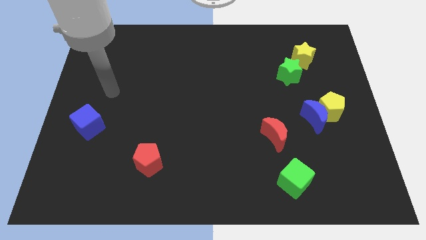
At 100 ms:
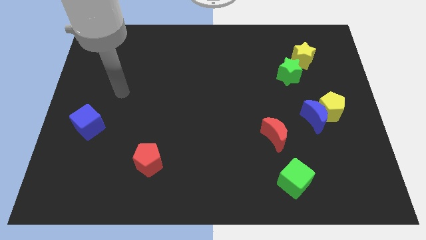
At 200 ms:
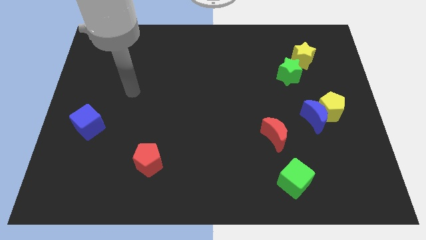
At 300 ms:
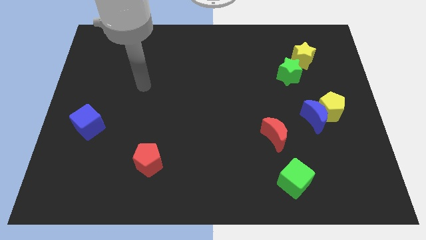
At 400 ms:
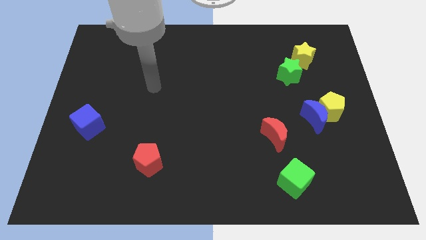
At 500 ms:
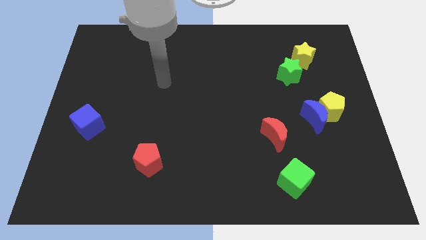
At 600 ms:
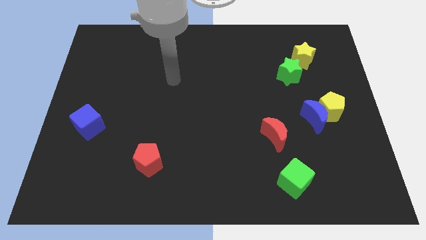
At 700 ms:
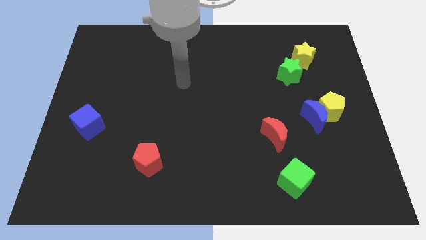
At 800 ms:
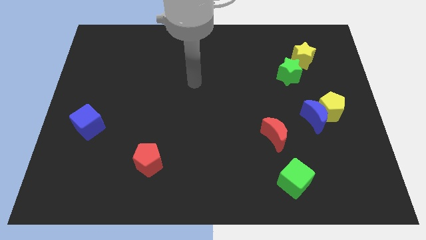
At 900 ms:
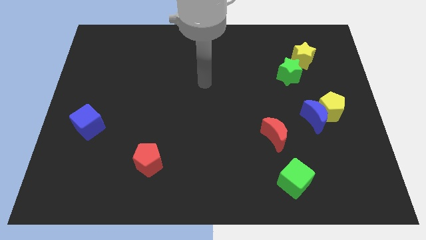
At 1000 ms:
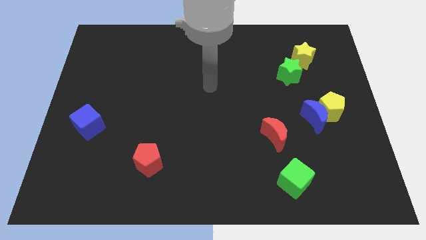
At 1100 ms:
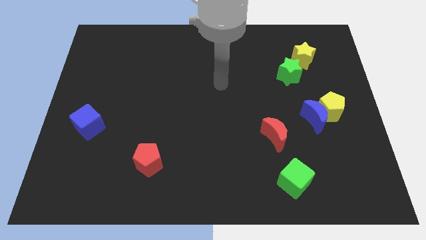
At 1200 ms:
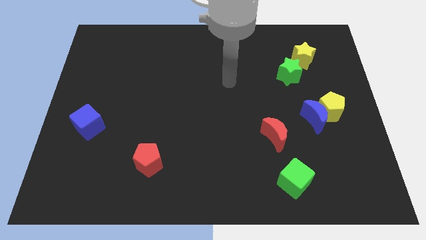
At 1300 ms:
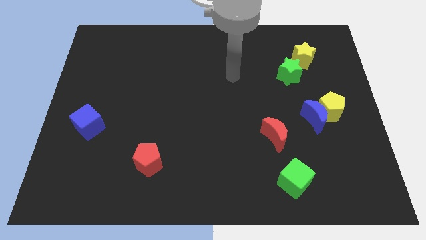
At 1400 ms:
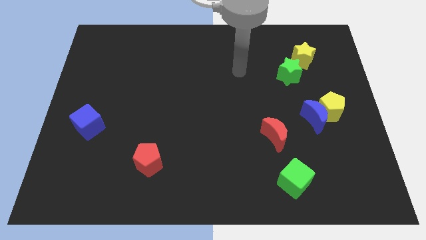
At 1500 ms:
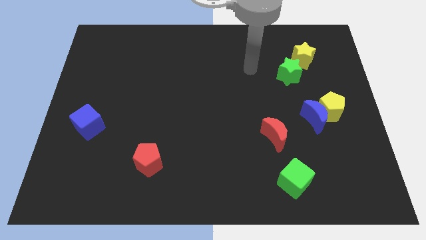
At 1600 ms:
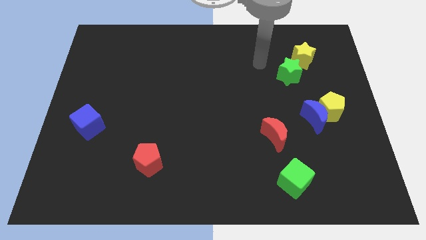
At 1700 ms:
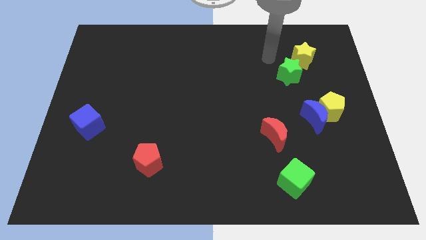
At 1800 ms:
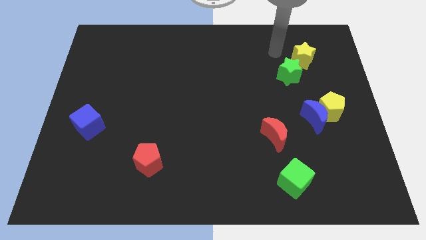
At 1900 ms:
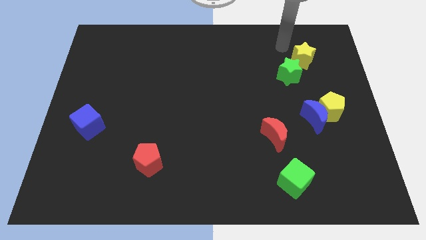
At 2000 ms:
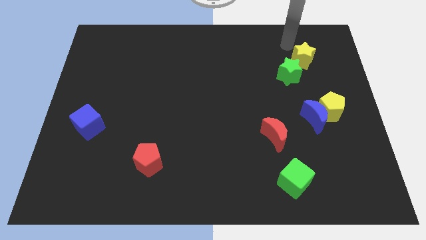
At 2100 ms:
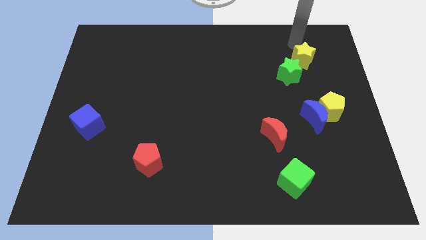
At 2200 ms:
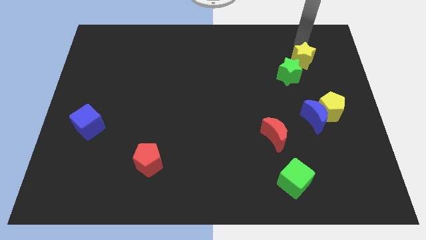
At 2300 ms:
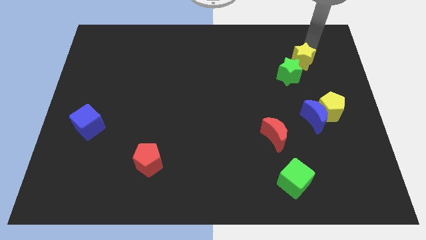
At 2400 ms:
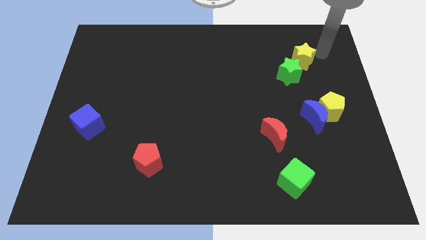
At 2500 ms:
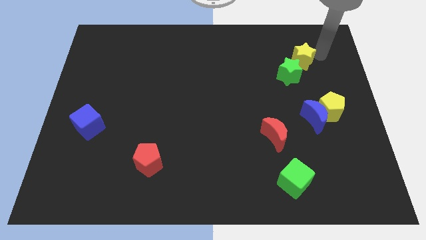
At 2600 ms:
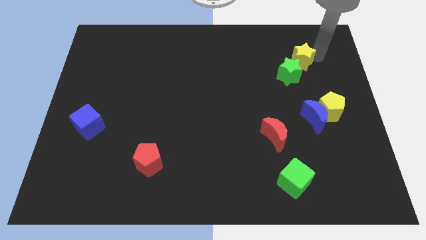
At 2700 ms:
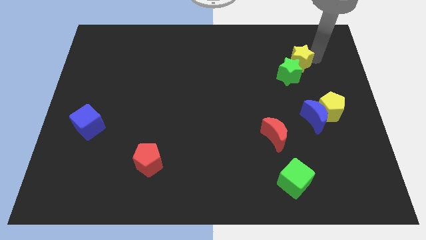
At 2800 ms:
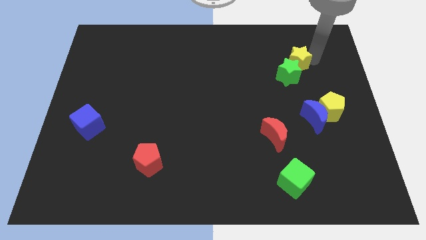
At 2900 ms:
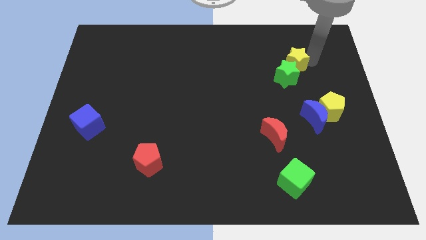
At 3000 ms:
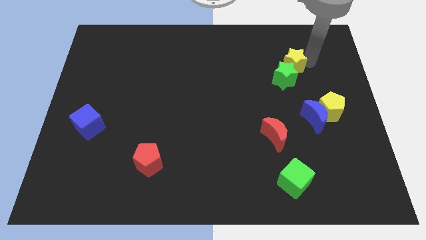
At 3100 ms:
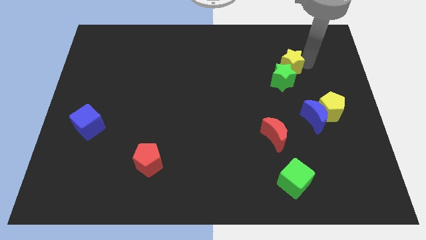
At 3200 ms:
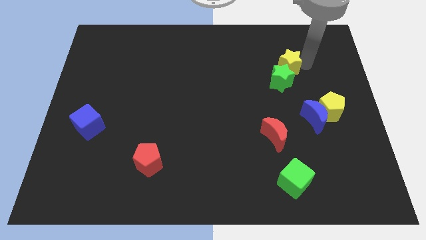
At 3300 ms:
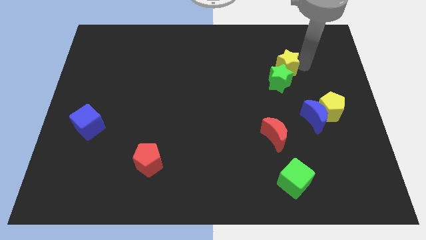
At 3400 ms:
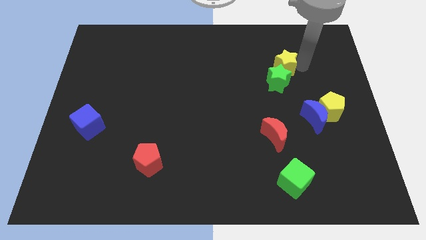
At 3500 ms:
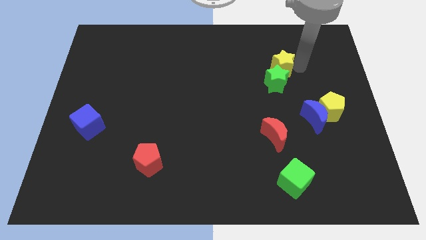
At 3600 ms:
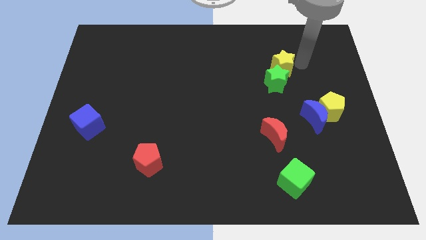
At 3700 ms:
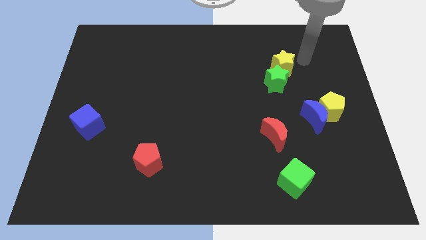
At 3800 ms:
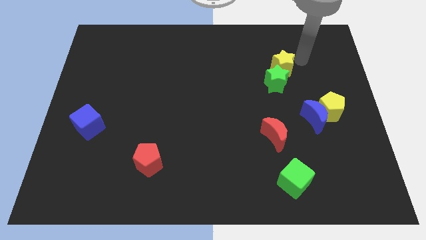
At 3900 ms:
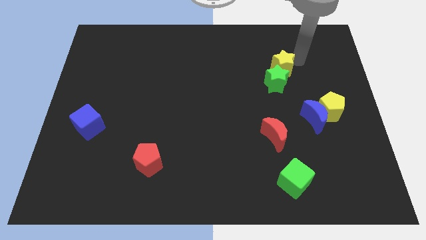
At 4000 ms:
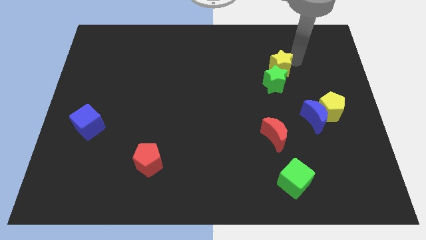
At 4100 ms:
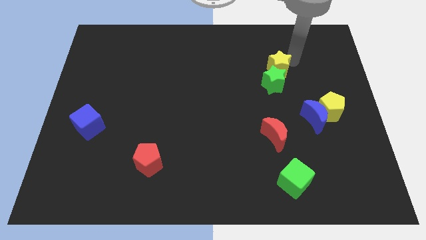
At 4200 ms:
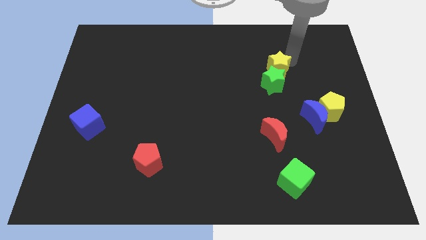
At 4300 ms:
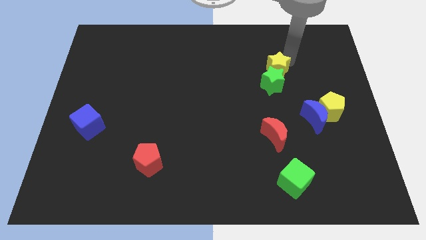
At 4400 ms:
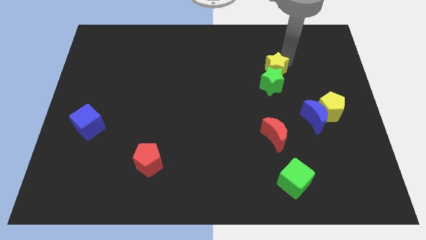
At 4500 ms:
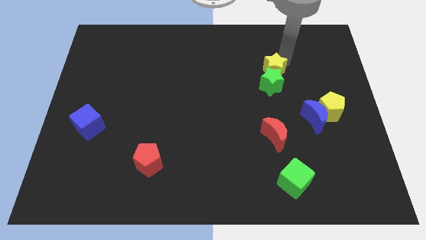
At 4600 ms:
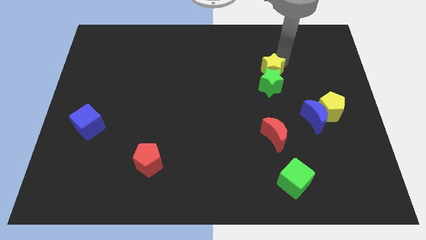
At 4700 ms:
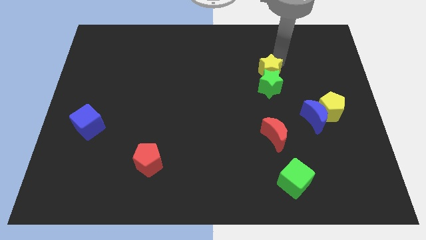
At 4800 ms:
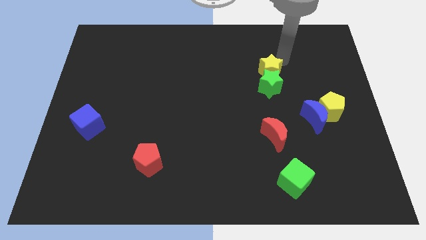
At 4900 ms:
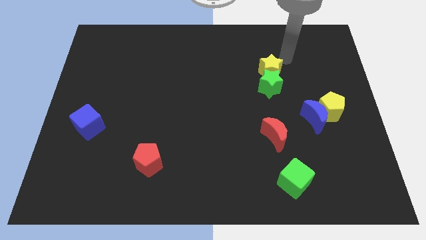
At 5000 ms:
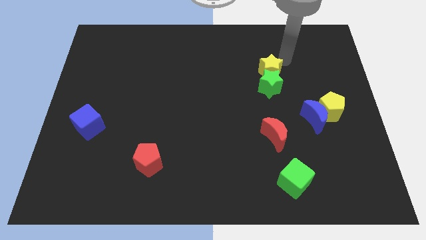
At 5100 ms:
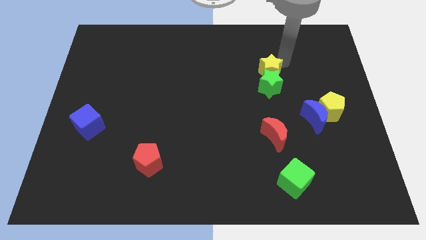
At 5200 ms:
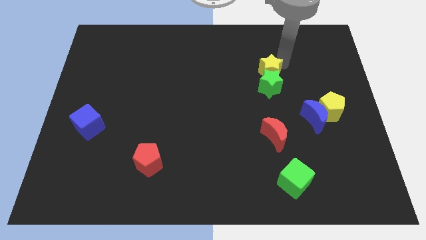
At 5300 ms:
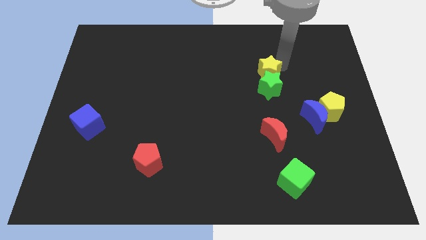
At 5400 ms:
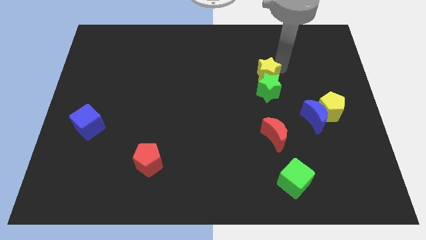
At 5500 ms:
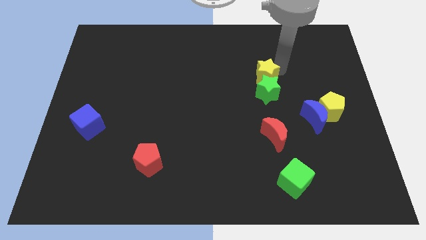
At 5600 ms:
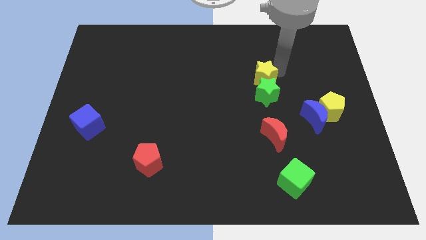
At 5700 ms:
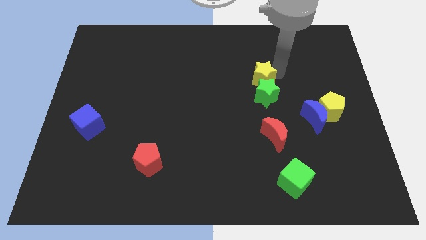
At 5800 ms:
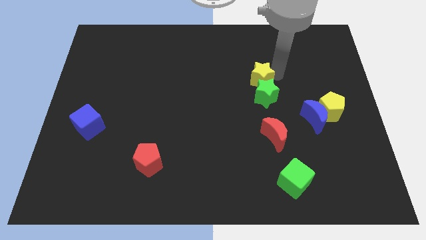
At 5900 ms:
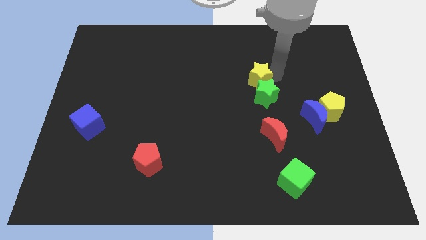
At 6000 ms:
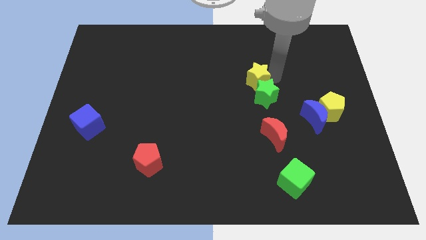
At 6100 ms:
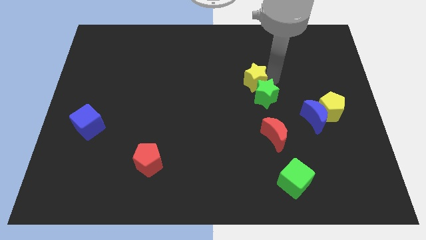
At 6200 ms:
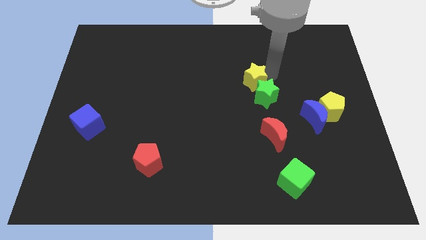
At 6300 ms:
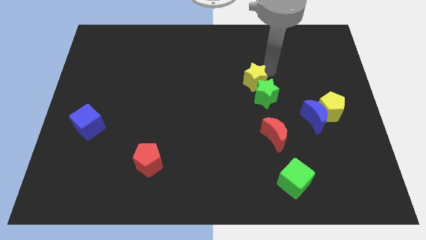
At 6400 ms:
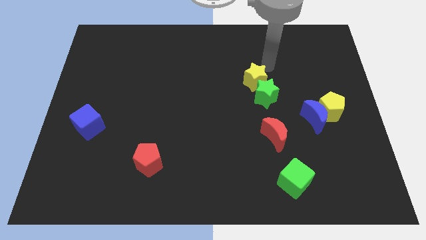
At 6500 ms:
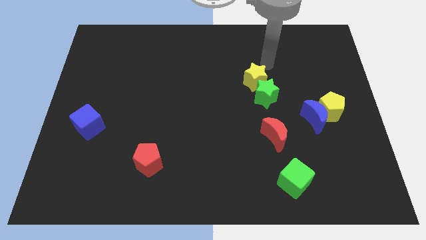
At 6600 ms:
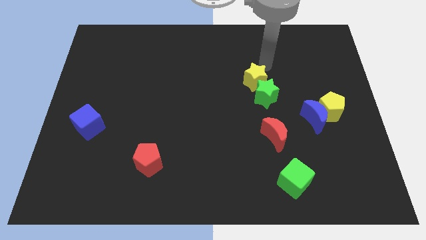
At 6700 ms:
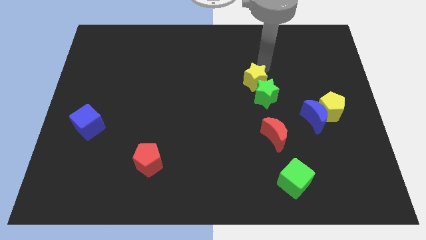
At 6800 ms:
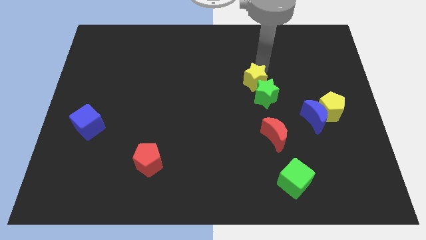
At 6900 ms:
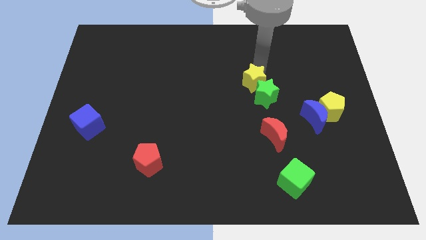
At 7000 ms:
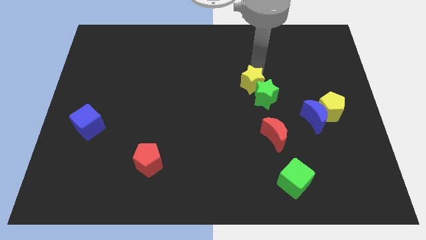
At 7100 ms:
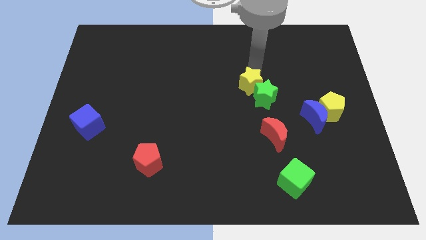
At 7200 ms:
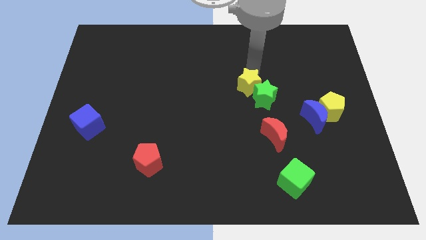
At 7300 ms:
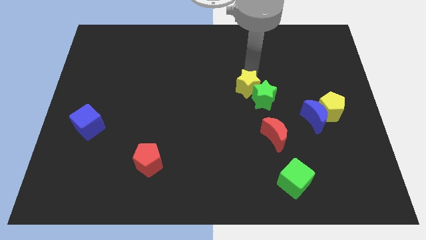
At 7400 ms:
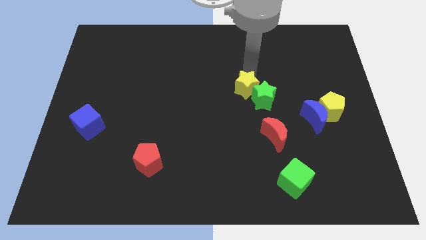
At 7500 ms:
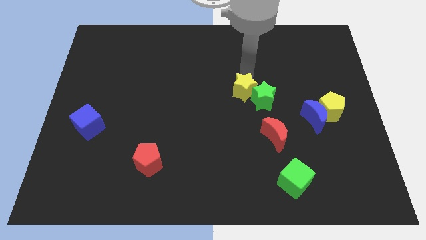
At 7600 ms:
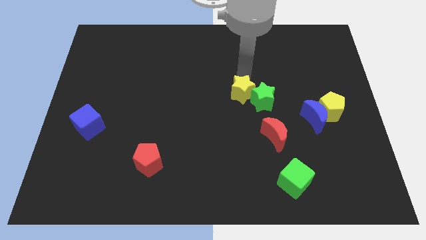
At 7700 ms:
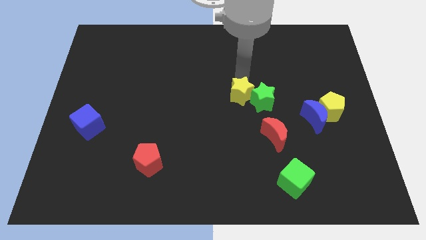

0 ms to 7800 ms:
slide the yellow star down and to the left diagonally
